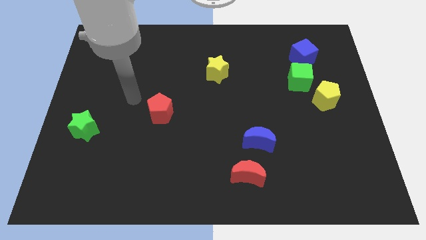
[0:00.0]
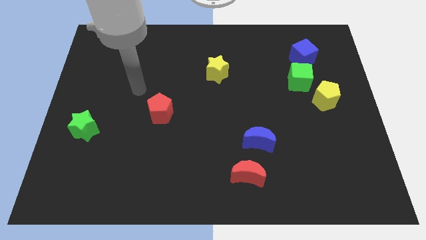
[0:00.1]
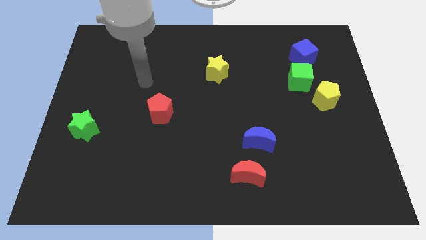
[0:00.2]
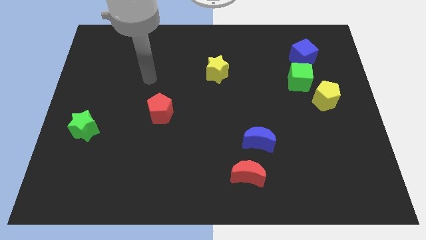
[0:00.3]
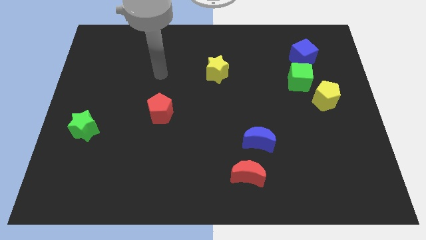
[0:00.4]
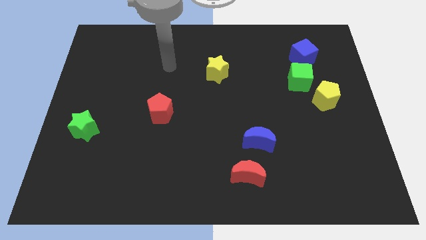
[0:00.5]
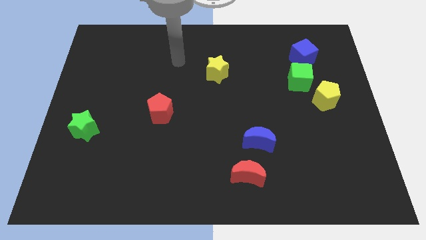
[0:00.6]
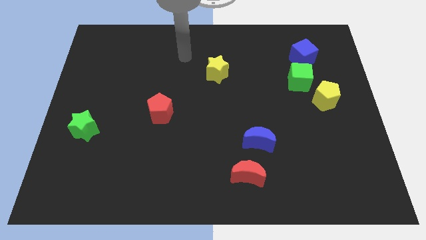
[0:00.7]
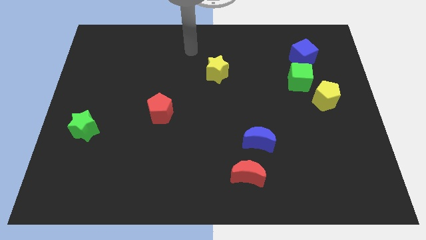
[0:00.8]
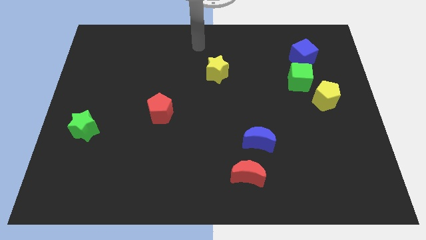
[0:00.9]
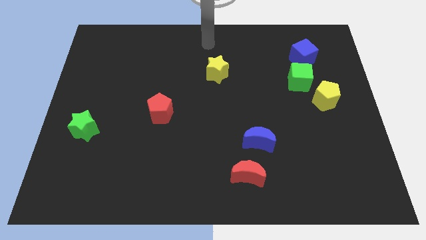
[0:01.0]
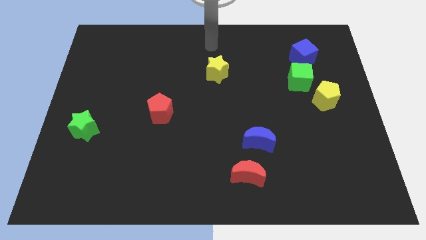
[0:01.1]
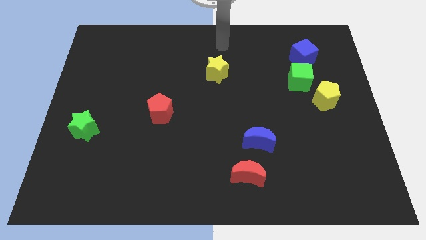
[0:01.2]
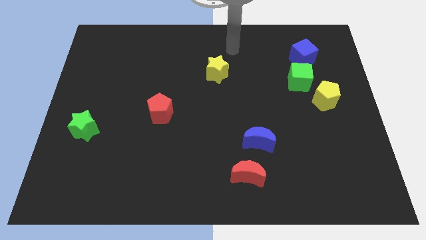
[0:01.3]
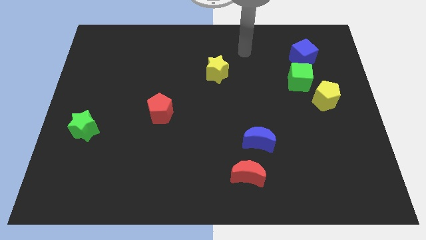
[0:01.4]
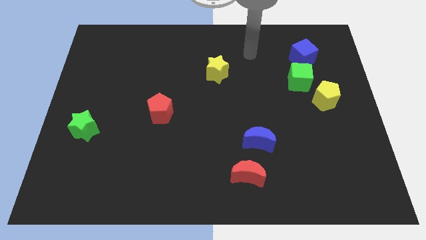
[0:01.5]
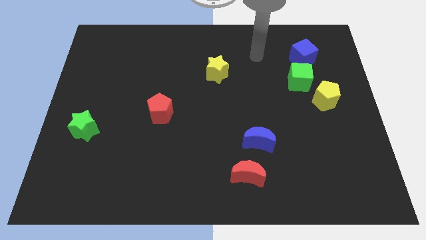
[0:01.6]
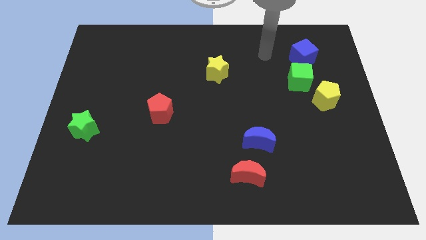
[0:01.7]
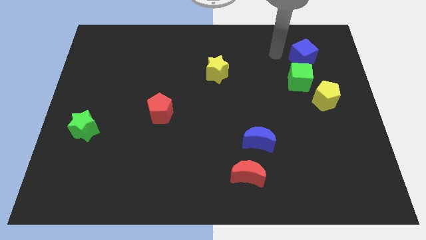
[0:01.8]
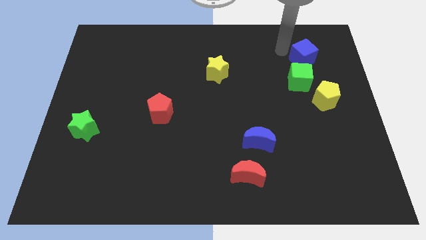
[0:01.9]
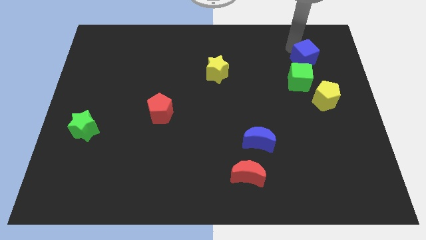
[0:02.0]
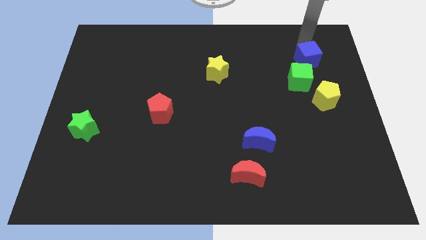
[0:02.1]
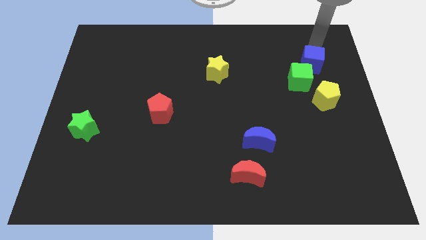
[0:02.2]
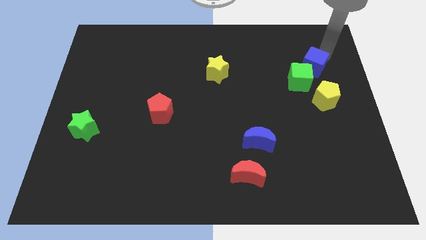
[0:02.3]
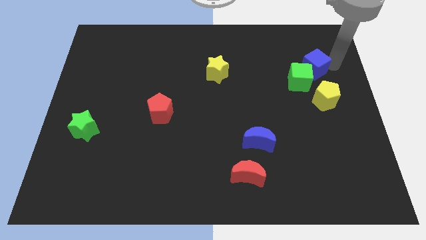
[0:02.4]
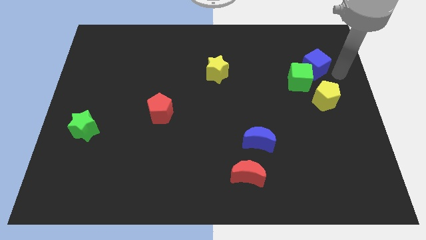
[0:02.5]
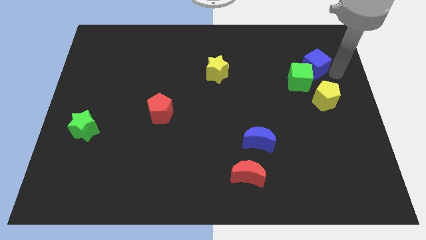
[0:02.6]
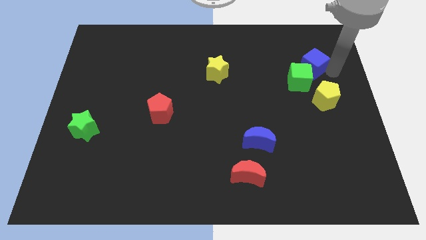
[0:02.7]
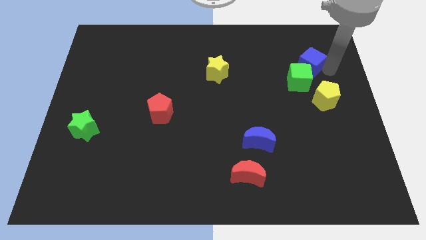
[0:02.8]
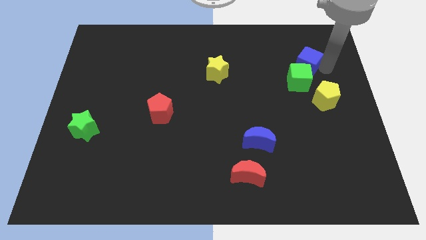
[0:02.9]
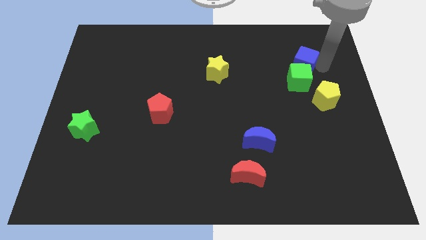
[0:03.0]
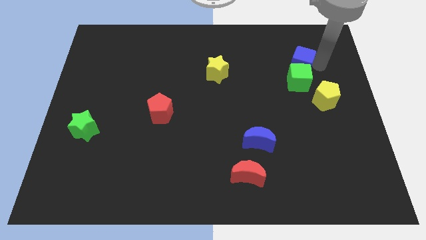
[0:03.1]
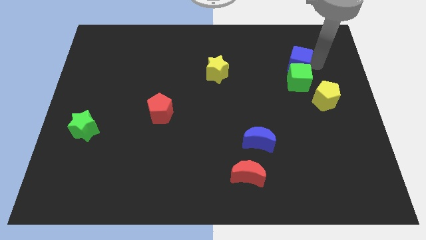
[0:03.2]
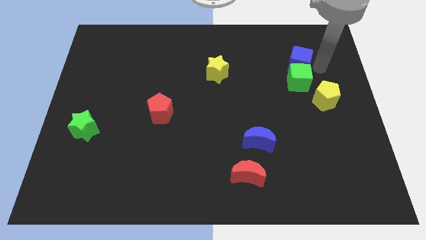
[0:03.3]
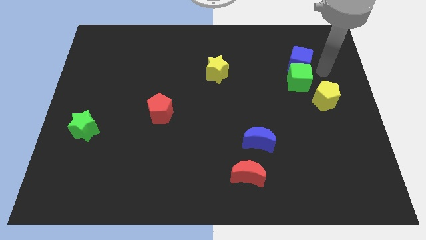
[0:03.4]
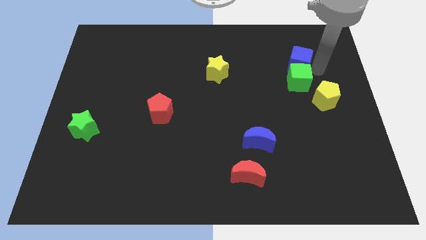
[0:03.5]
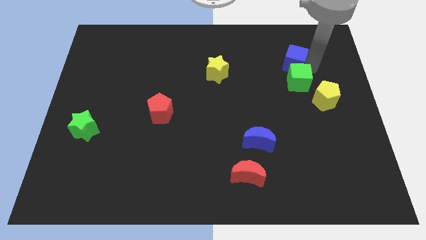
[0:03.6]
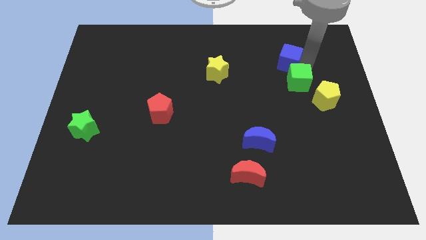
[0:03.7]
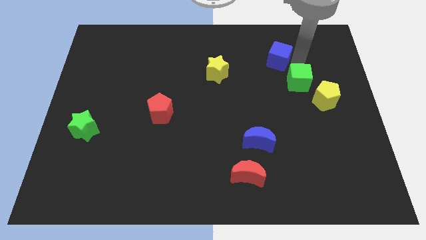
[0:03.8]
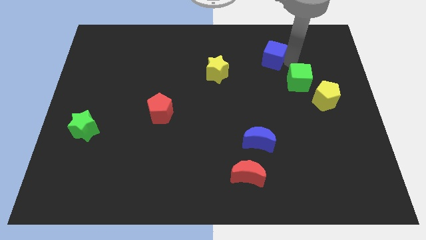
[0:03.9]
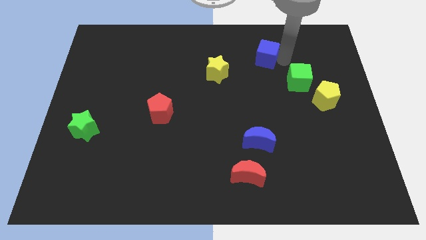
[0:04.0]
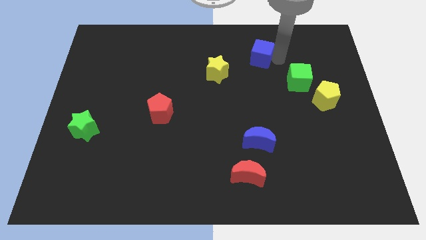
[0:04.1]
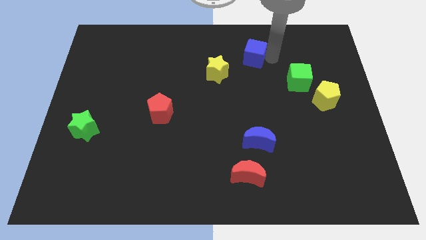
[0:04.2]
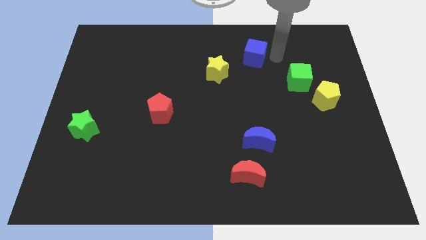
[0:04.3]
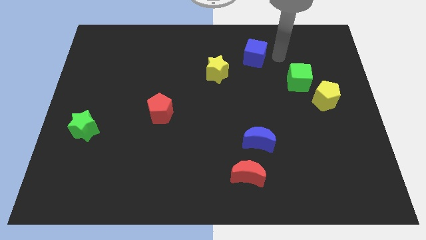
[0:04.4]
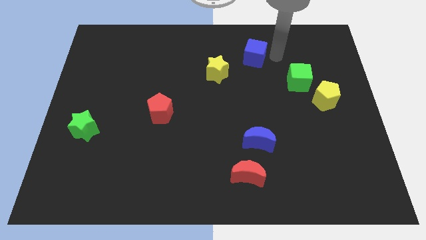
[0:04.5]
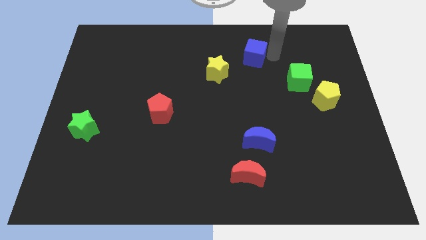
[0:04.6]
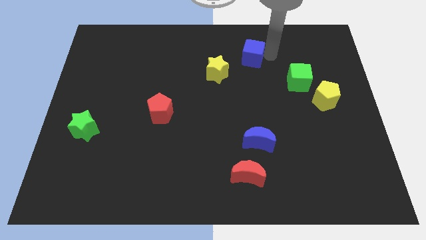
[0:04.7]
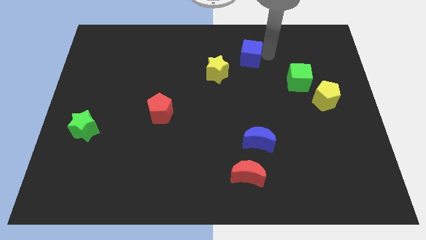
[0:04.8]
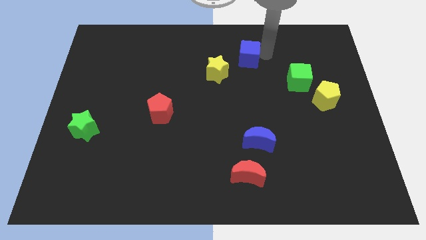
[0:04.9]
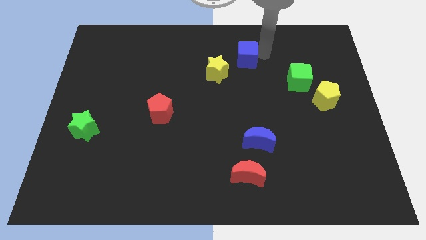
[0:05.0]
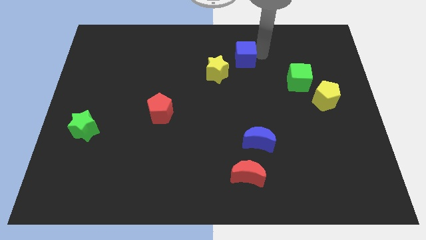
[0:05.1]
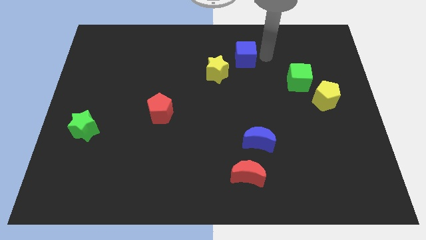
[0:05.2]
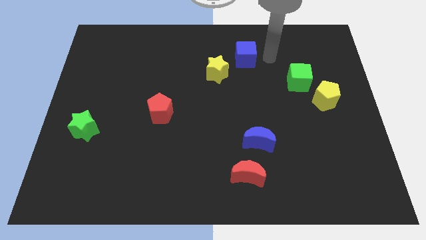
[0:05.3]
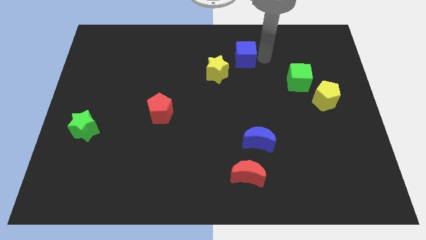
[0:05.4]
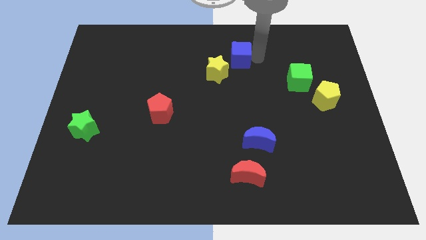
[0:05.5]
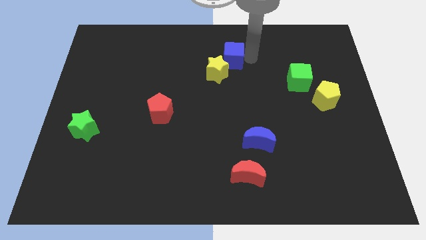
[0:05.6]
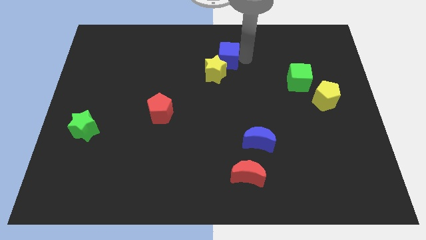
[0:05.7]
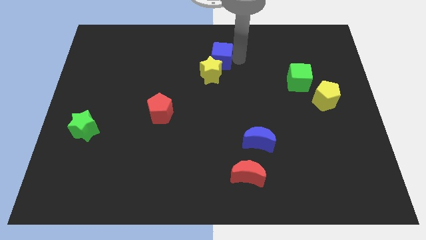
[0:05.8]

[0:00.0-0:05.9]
push the blue cube to the left

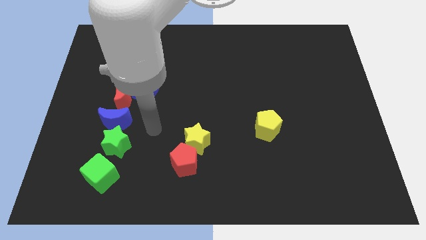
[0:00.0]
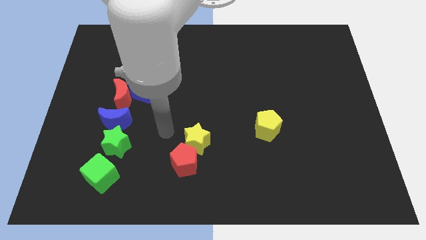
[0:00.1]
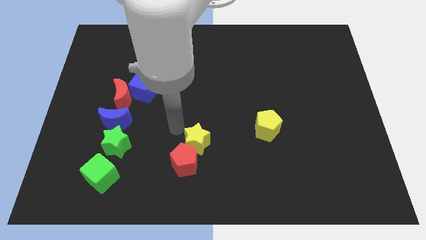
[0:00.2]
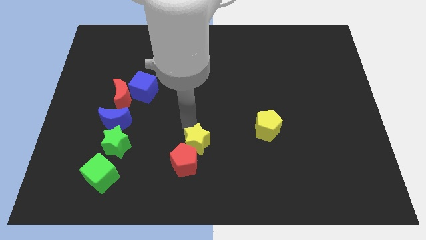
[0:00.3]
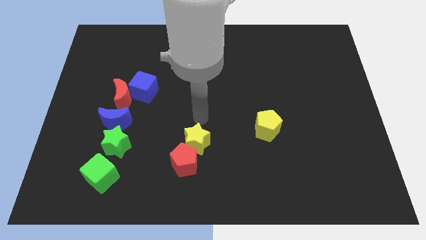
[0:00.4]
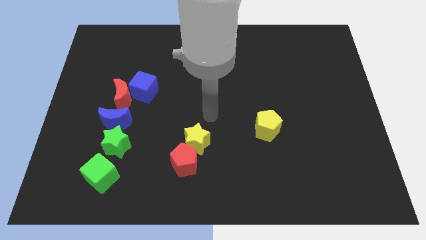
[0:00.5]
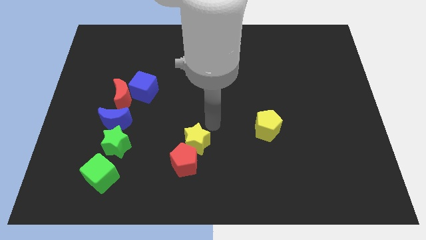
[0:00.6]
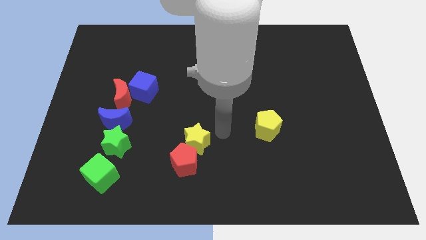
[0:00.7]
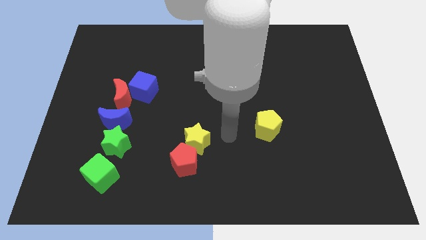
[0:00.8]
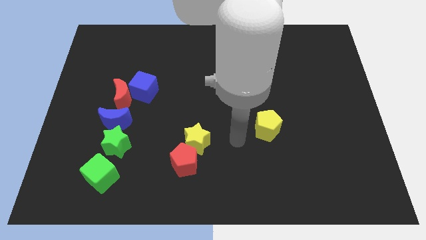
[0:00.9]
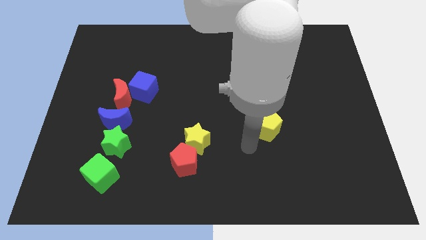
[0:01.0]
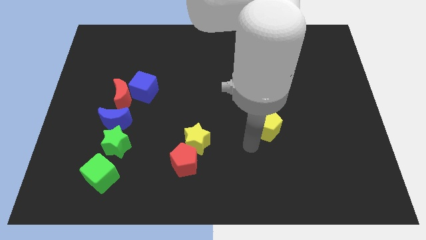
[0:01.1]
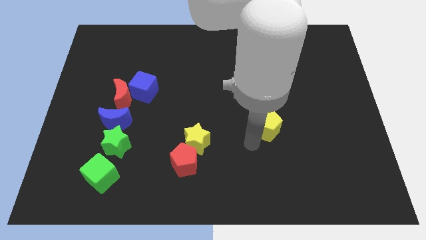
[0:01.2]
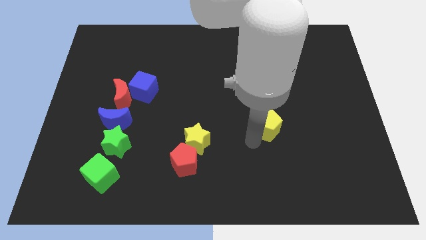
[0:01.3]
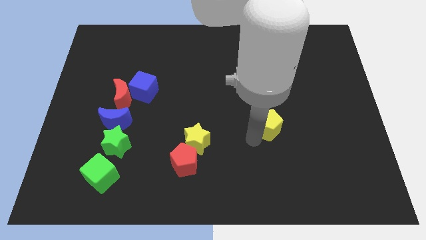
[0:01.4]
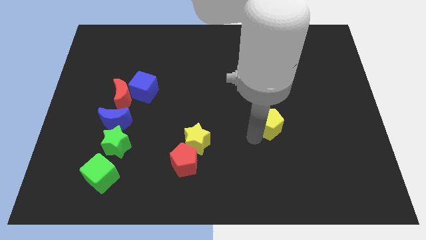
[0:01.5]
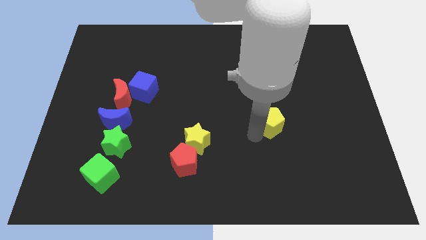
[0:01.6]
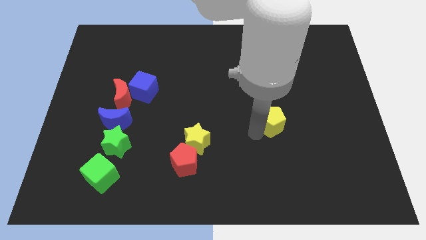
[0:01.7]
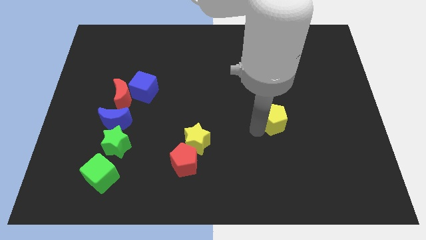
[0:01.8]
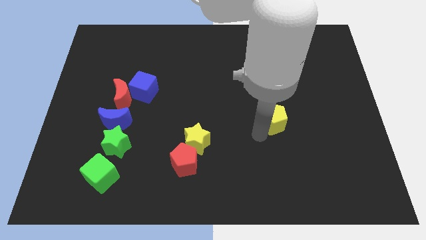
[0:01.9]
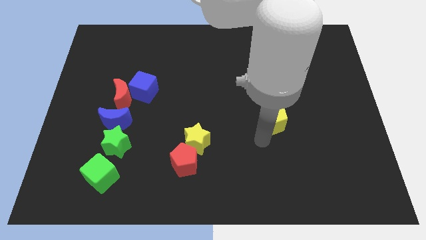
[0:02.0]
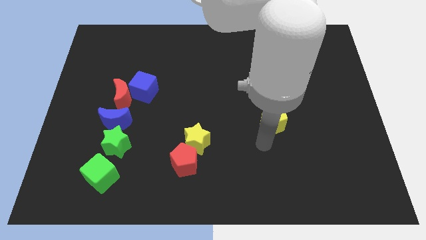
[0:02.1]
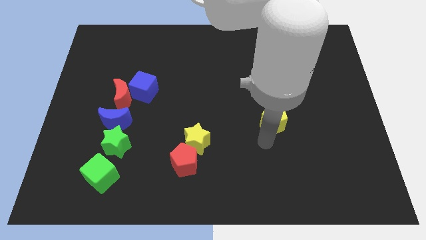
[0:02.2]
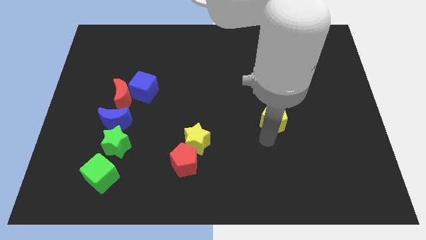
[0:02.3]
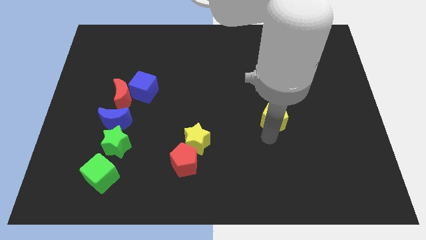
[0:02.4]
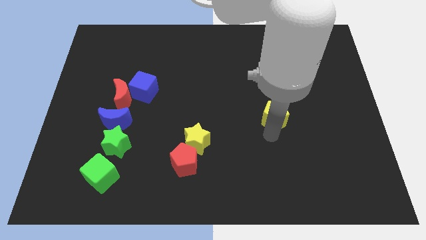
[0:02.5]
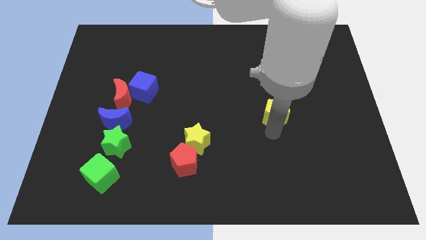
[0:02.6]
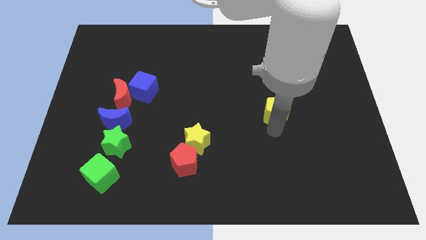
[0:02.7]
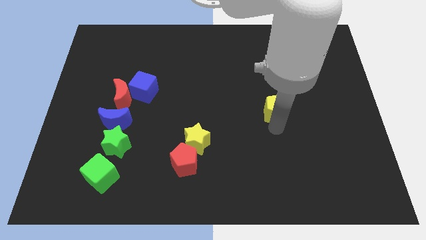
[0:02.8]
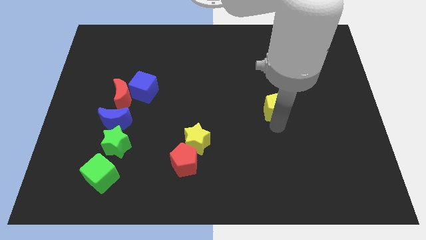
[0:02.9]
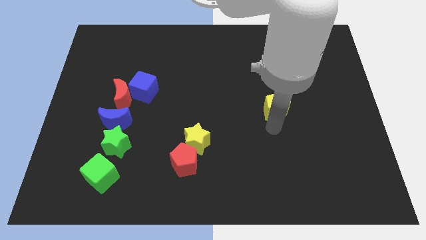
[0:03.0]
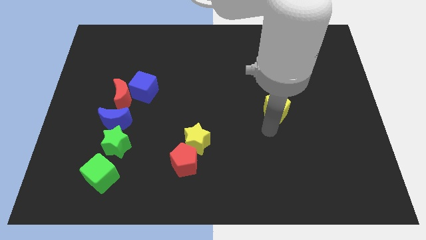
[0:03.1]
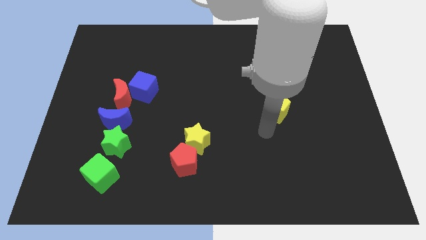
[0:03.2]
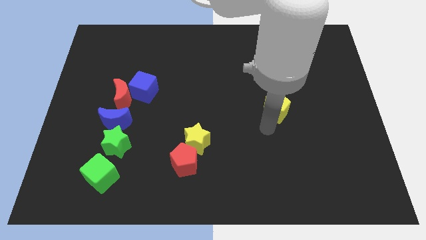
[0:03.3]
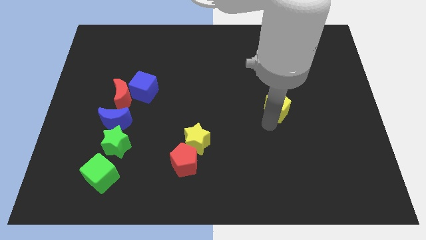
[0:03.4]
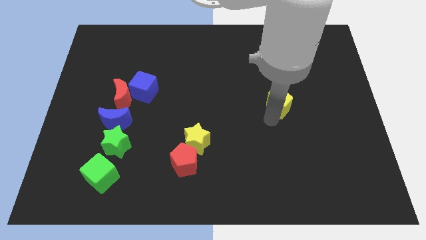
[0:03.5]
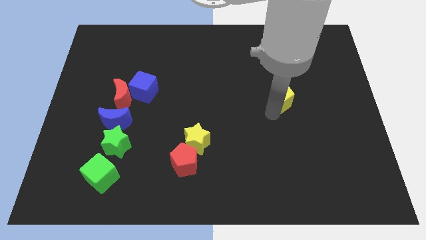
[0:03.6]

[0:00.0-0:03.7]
slightly slide the yellow pentagon upwards and then right
